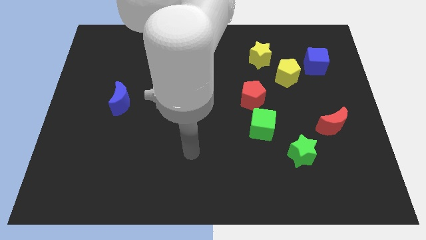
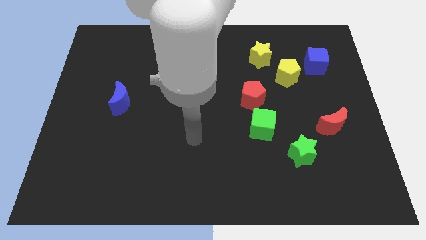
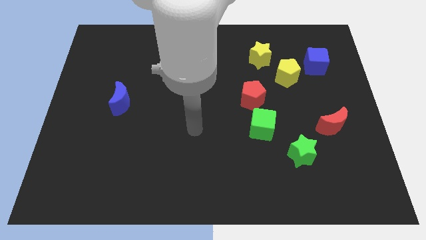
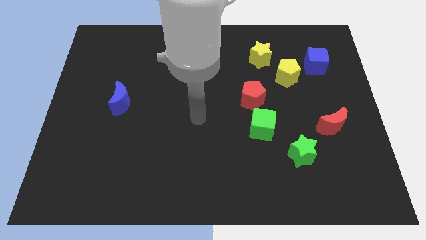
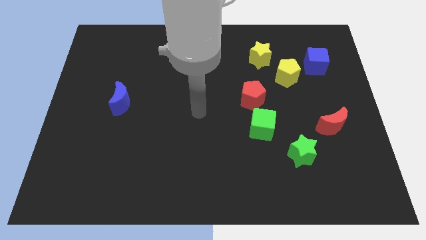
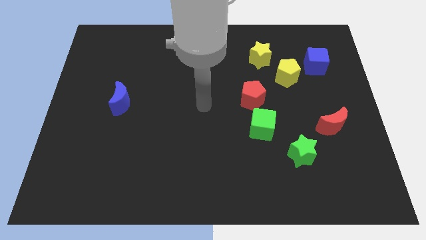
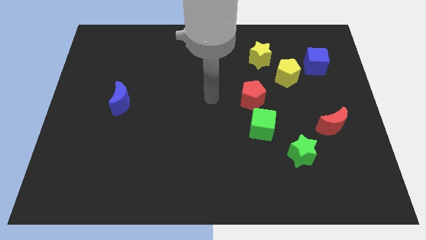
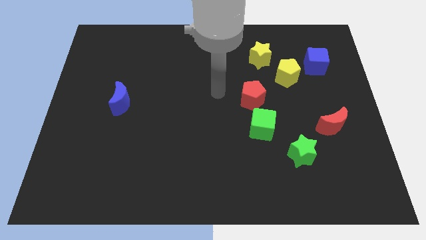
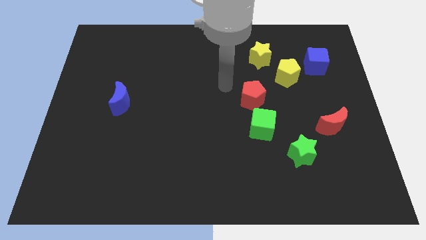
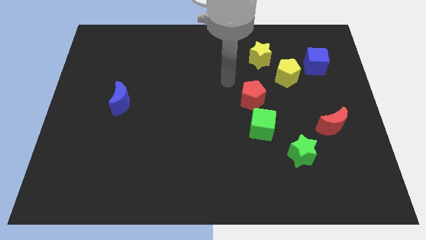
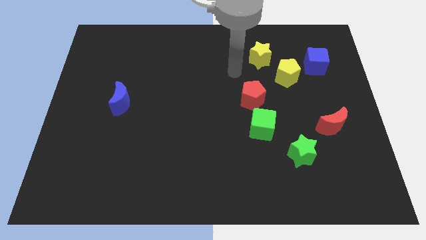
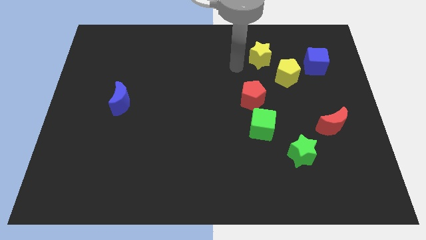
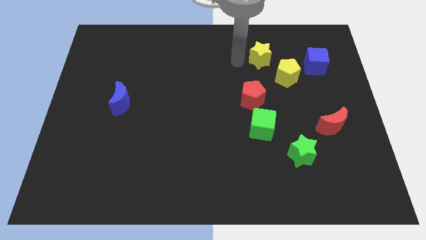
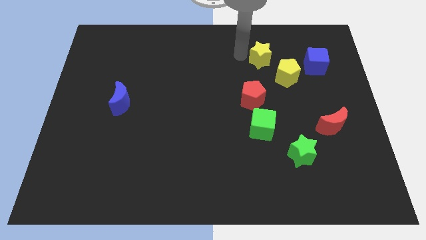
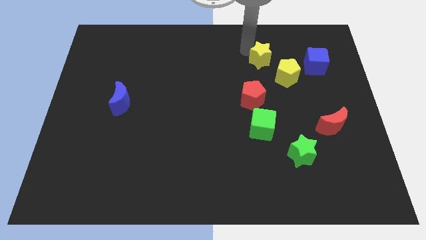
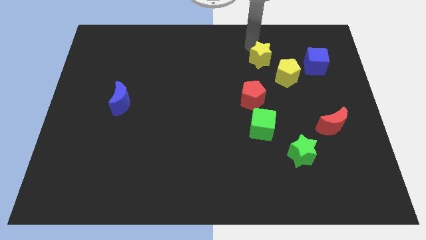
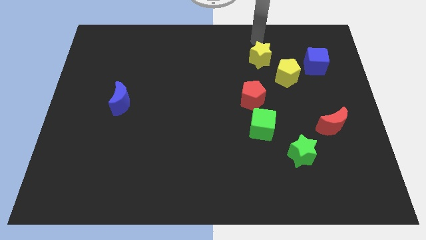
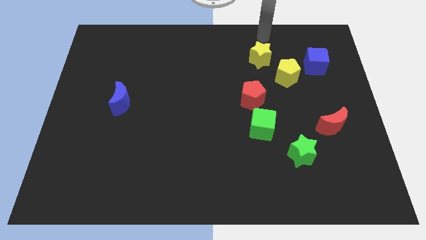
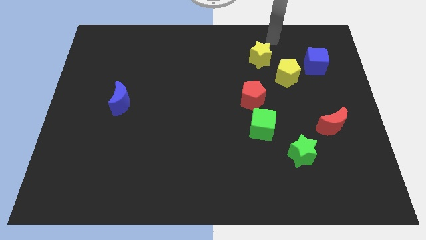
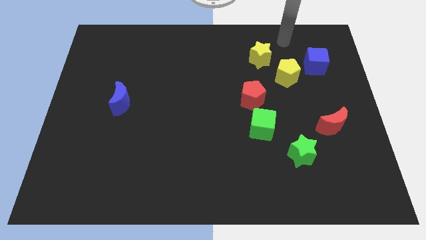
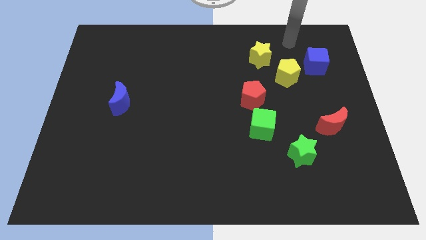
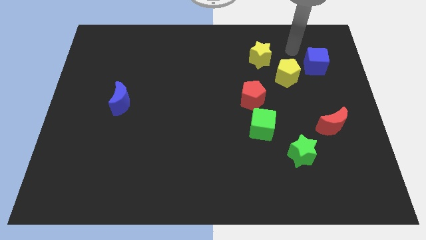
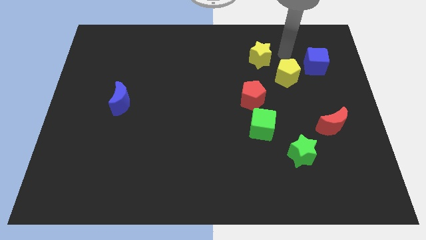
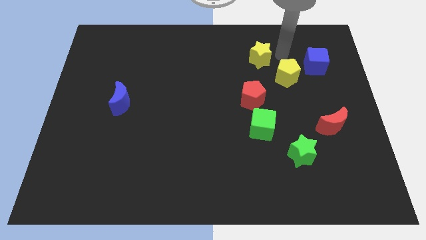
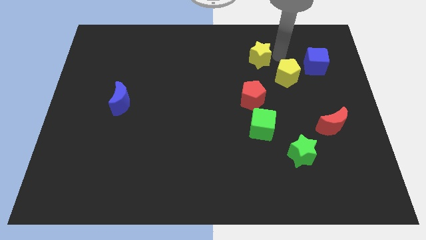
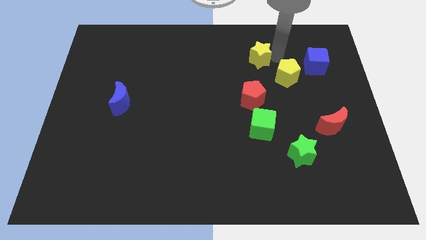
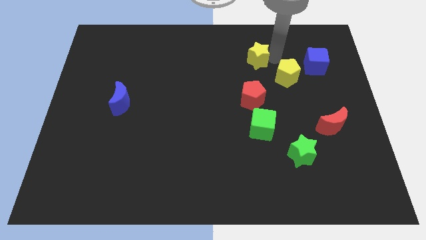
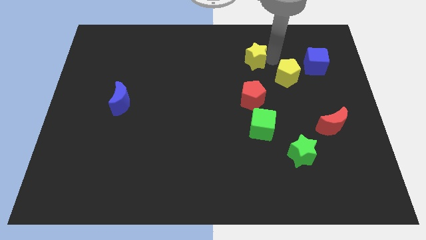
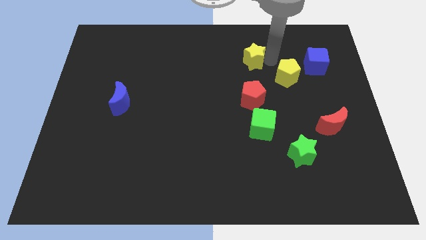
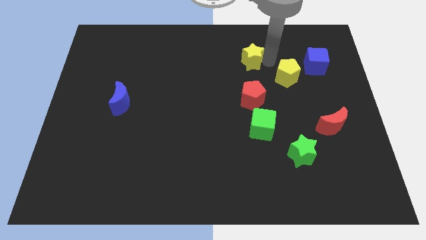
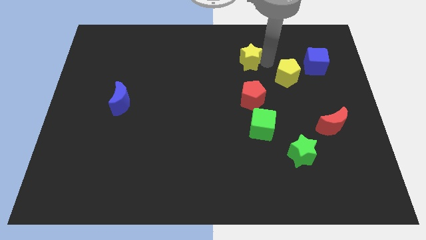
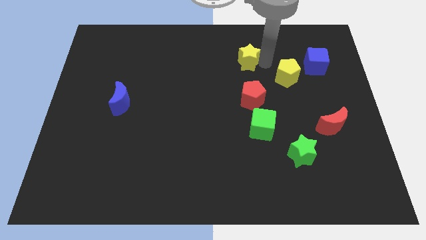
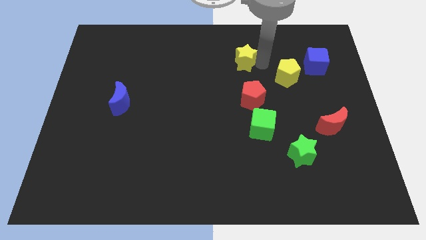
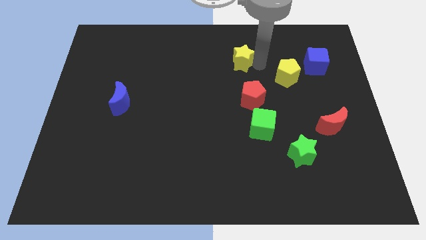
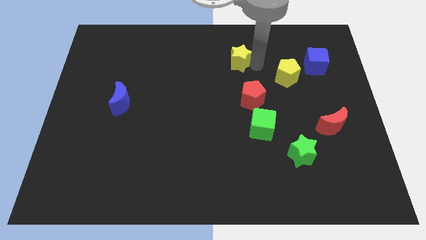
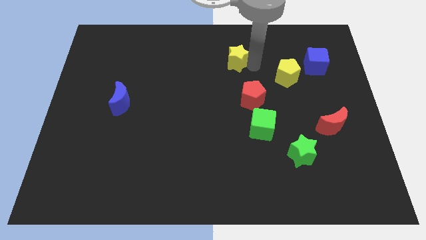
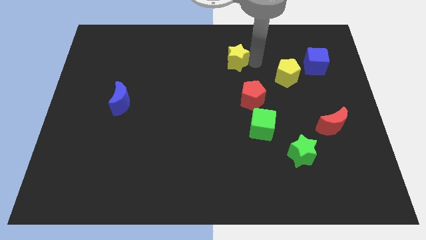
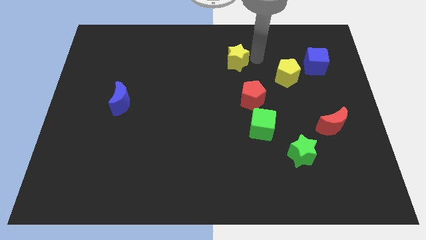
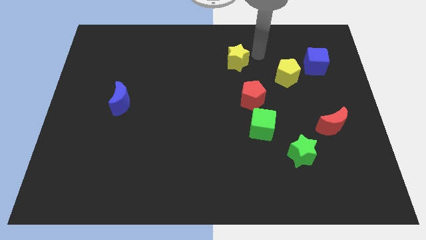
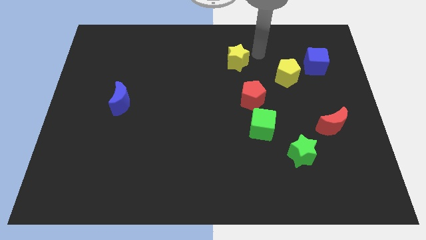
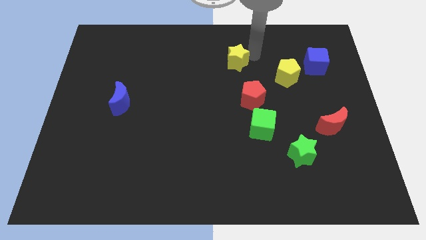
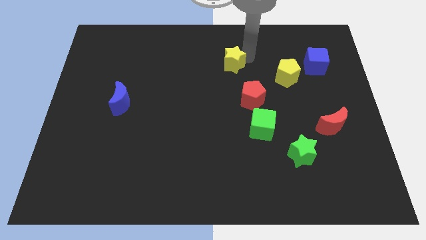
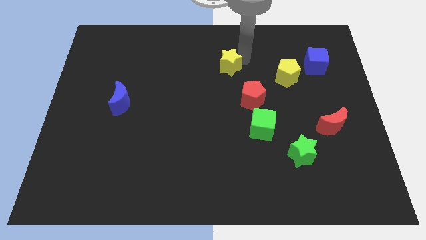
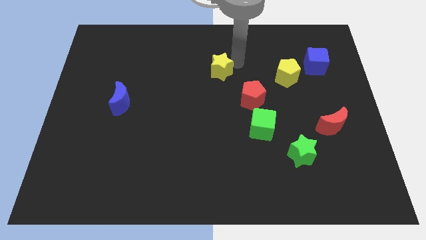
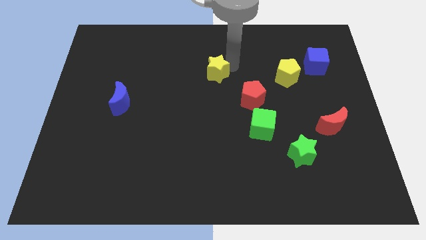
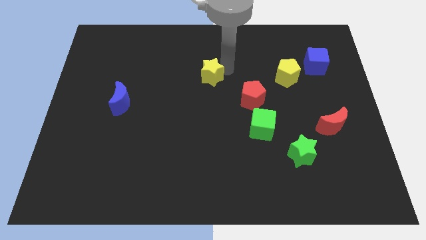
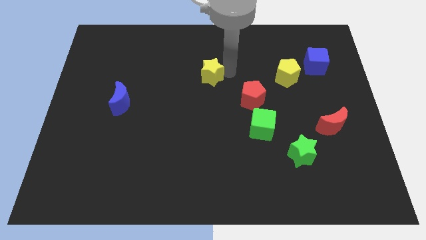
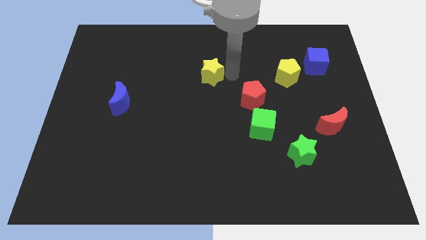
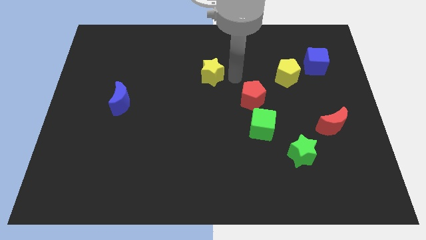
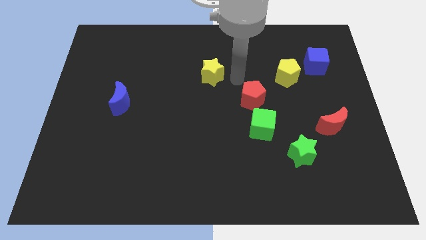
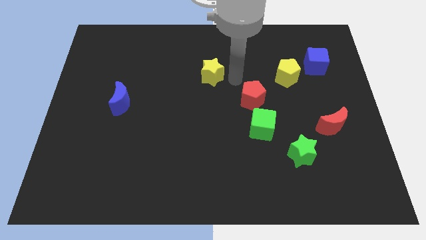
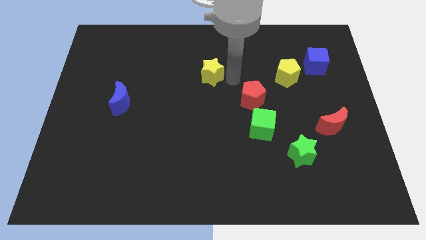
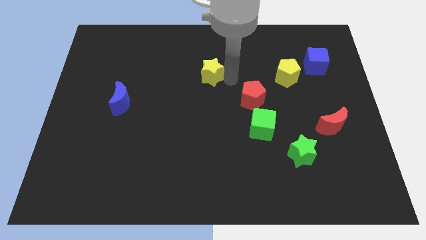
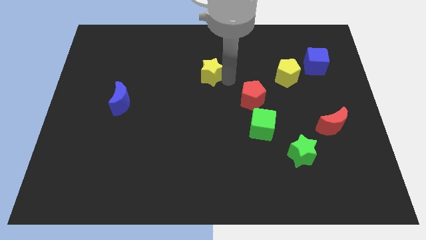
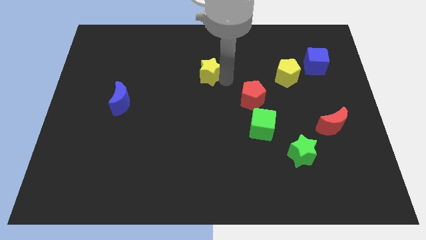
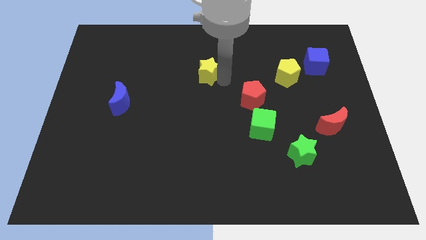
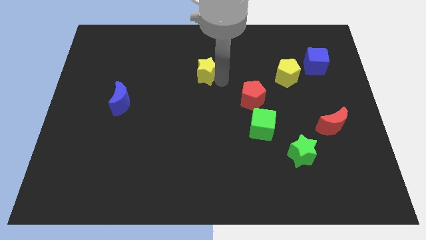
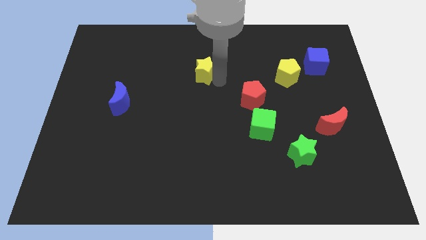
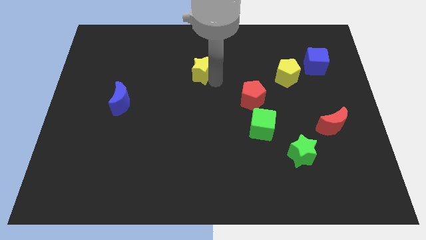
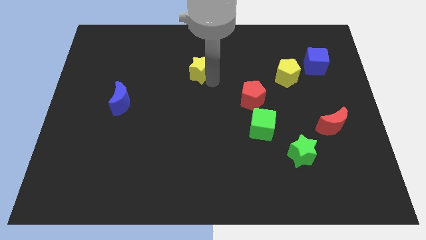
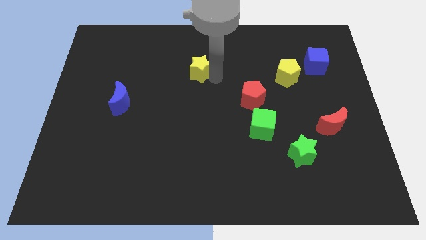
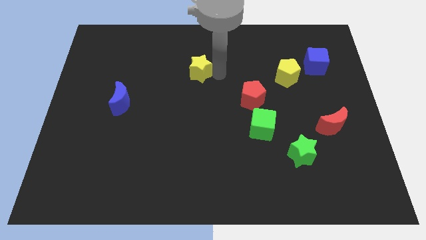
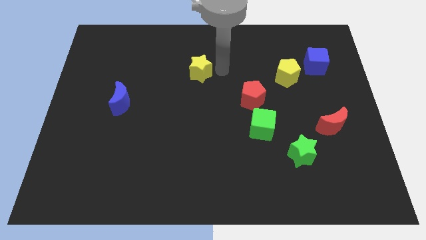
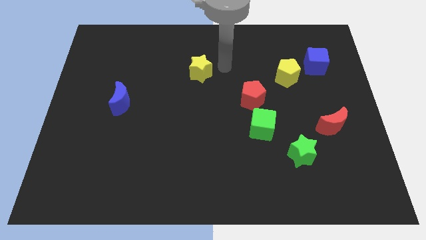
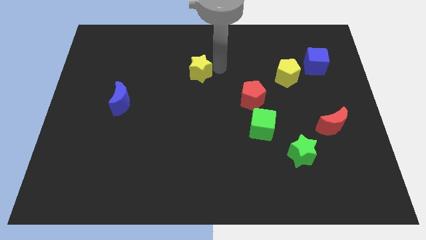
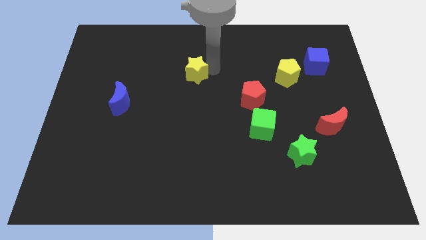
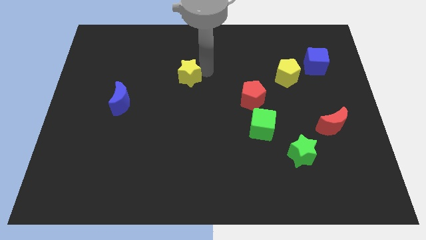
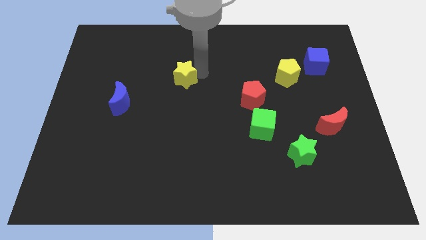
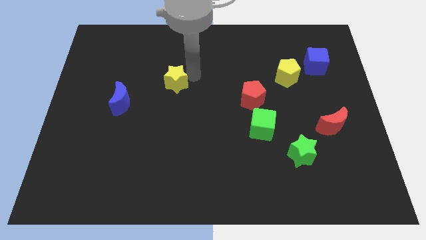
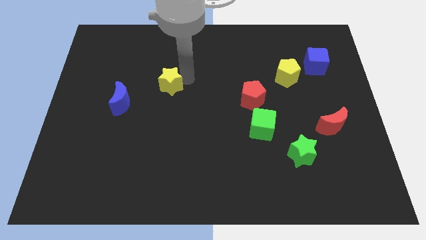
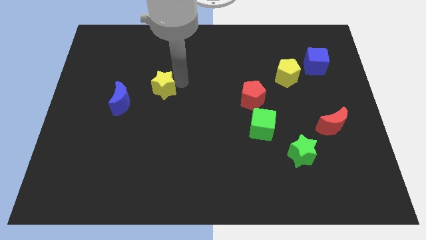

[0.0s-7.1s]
push the yellow star to the top right side of the blue moon
